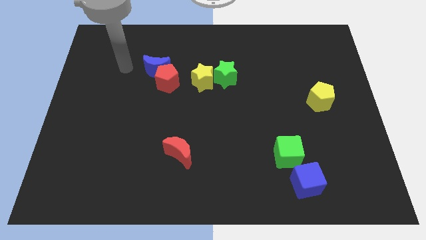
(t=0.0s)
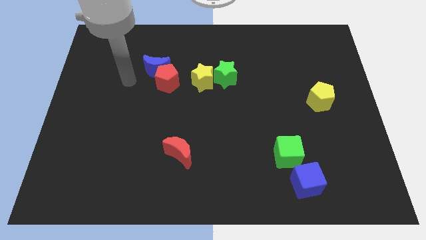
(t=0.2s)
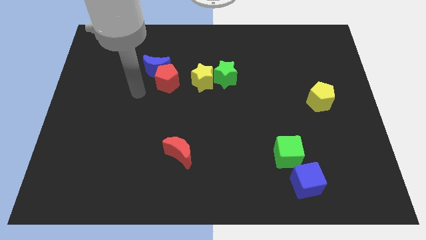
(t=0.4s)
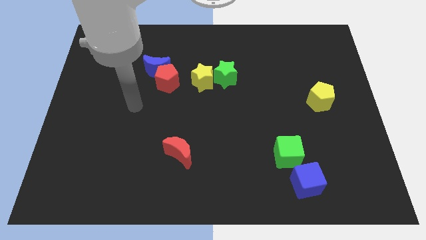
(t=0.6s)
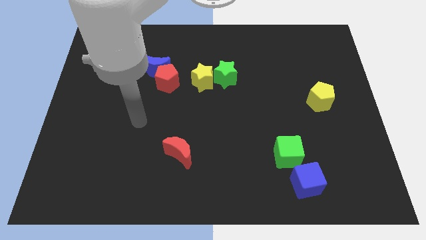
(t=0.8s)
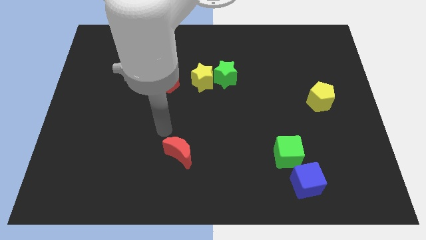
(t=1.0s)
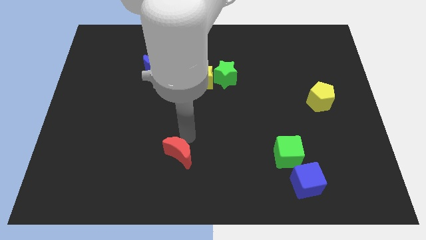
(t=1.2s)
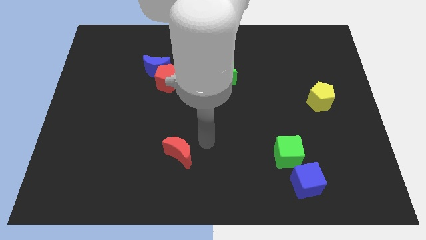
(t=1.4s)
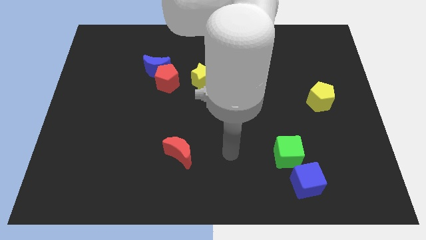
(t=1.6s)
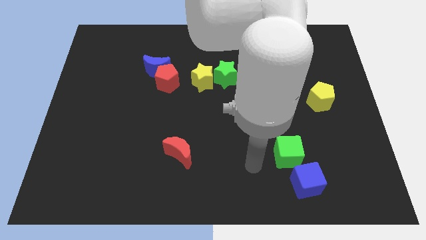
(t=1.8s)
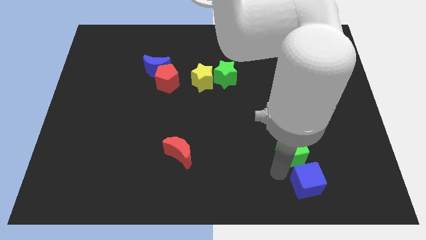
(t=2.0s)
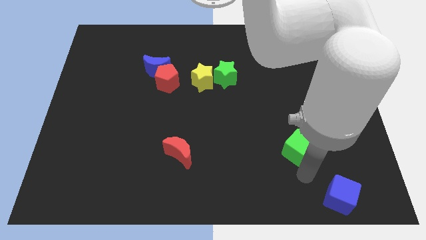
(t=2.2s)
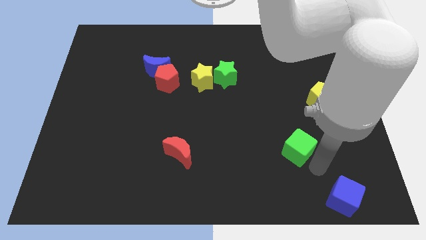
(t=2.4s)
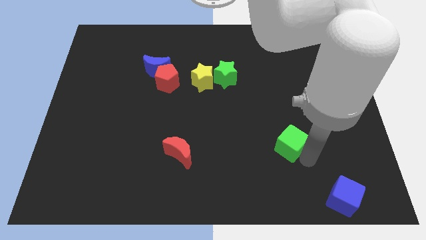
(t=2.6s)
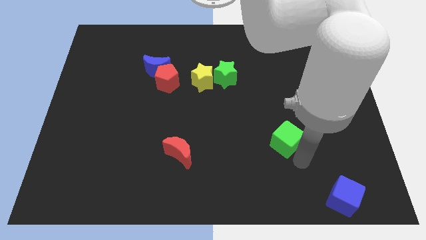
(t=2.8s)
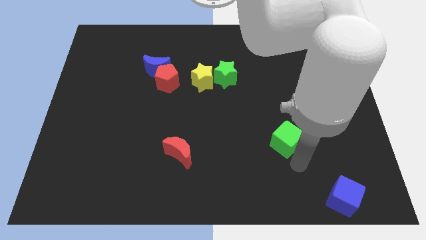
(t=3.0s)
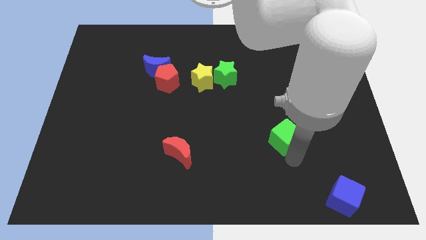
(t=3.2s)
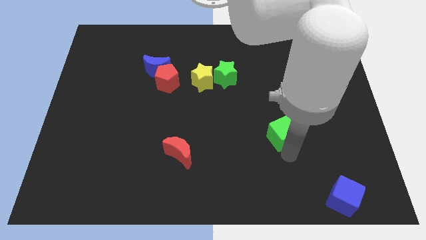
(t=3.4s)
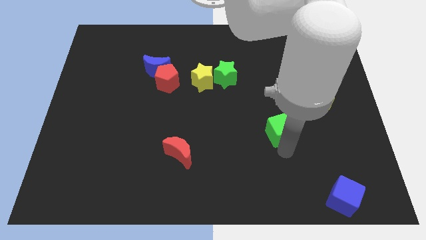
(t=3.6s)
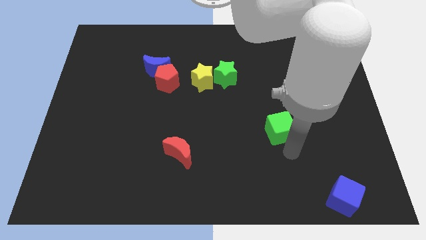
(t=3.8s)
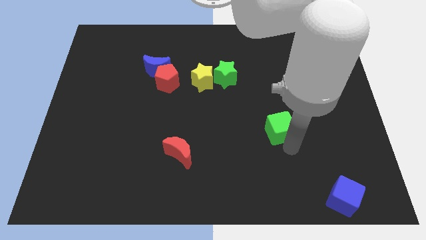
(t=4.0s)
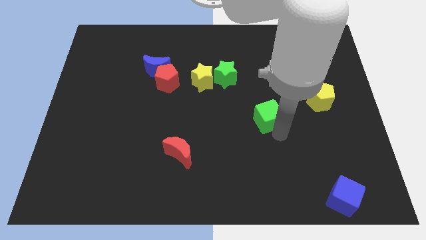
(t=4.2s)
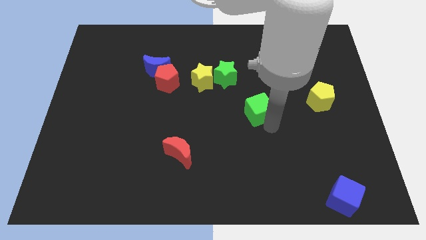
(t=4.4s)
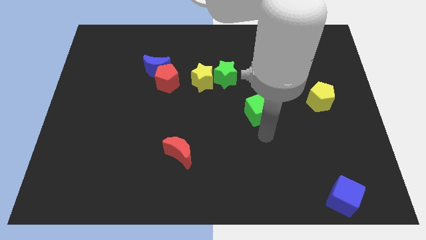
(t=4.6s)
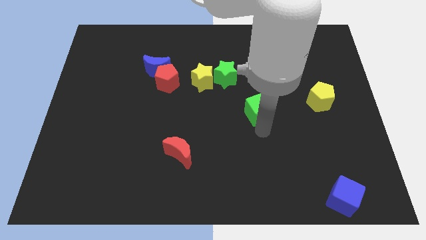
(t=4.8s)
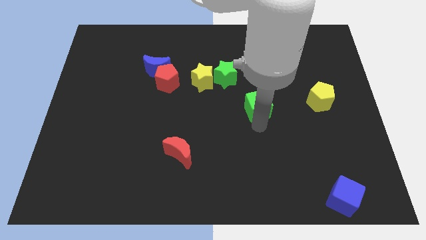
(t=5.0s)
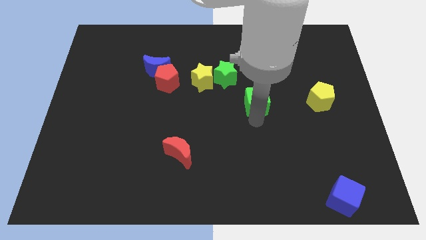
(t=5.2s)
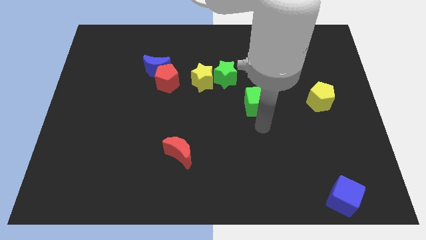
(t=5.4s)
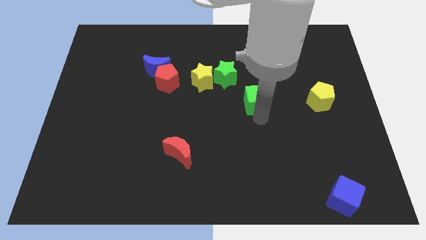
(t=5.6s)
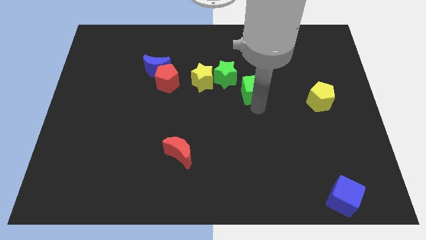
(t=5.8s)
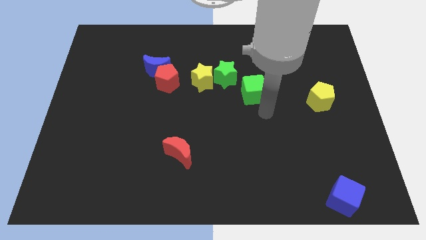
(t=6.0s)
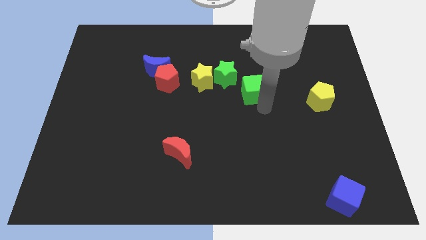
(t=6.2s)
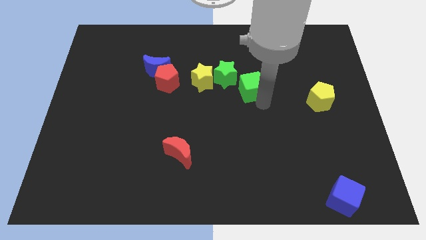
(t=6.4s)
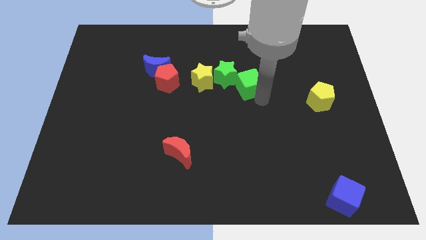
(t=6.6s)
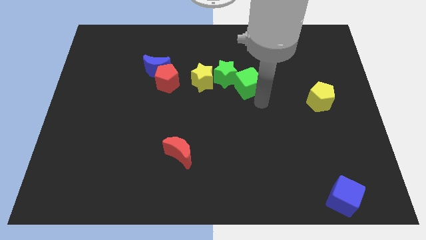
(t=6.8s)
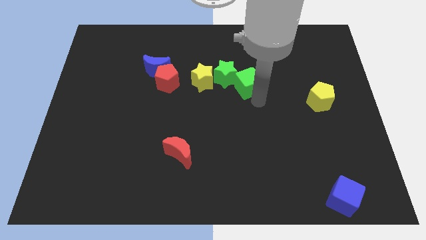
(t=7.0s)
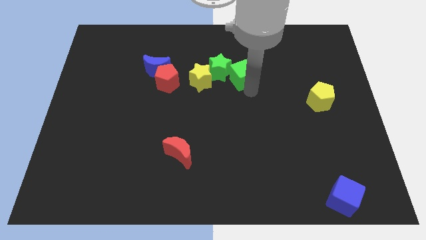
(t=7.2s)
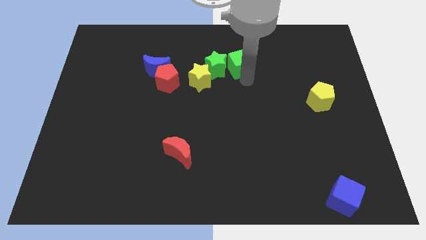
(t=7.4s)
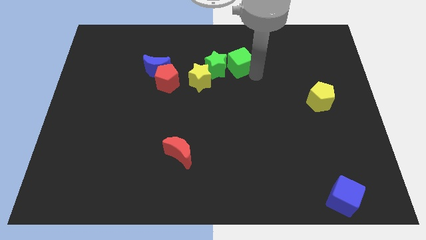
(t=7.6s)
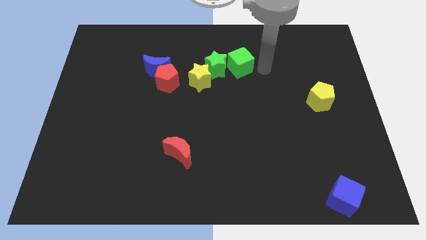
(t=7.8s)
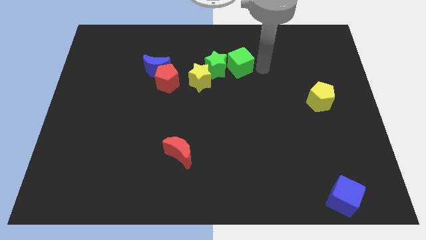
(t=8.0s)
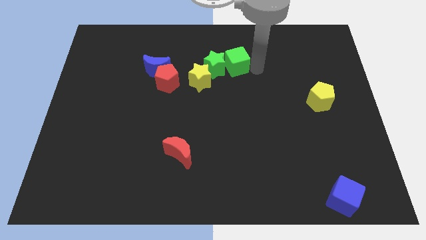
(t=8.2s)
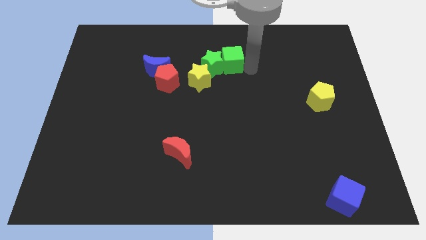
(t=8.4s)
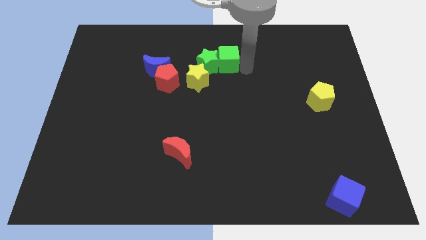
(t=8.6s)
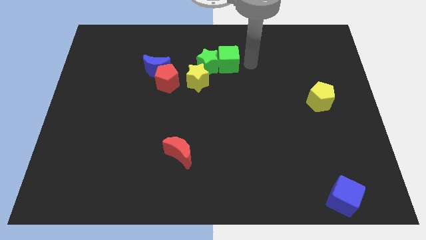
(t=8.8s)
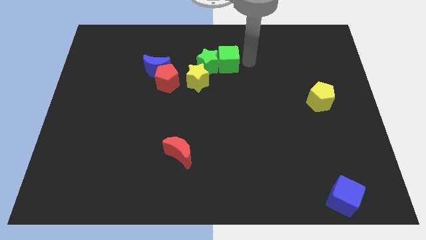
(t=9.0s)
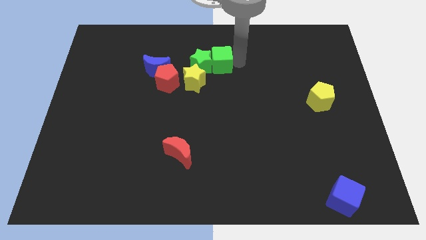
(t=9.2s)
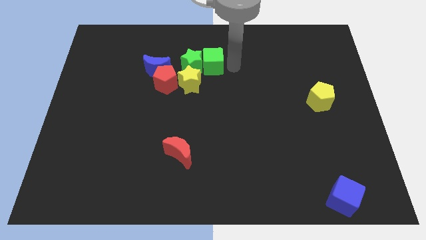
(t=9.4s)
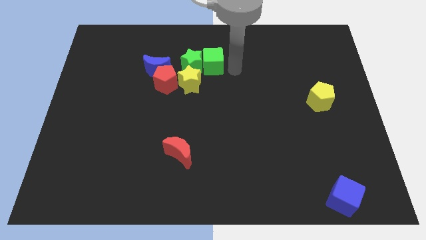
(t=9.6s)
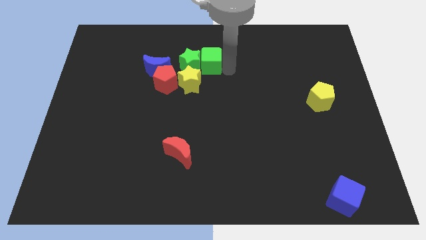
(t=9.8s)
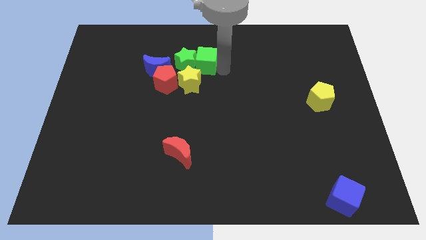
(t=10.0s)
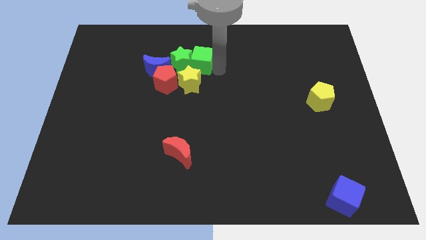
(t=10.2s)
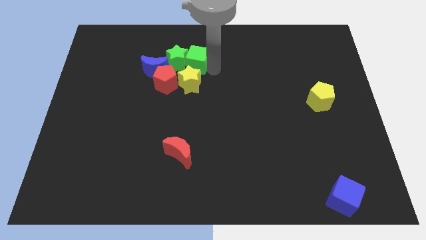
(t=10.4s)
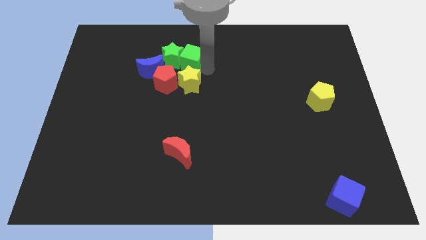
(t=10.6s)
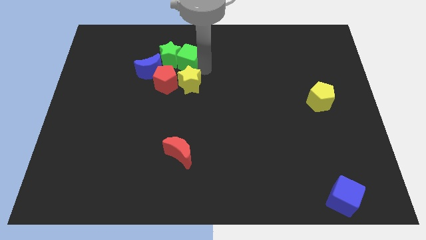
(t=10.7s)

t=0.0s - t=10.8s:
slide the green cube to the top right side of the blue moon

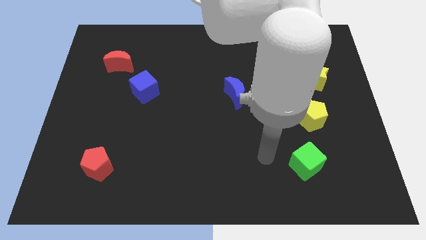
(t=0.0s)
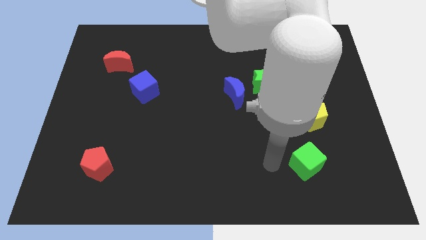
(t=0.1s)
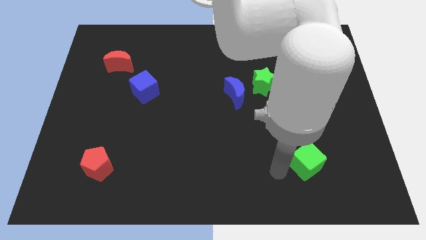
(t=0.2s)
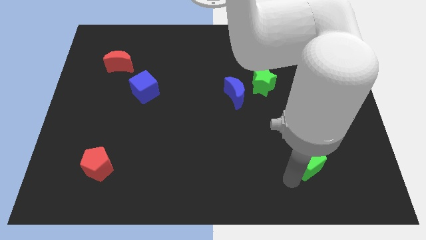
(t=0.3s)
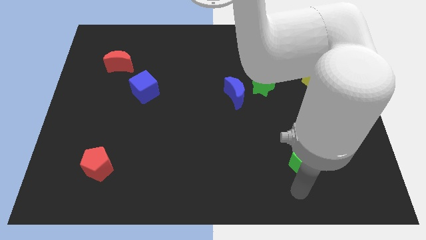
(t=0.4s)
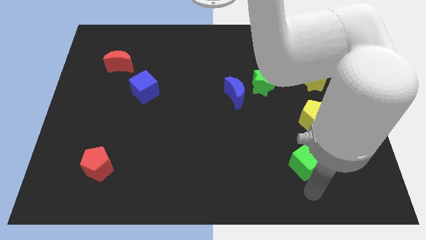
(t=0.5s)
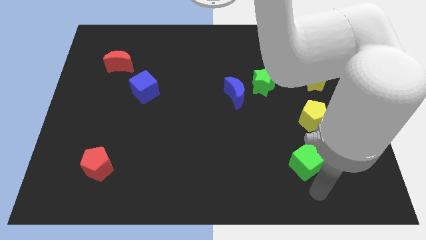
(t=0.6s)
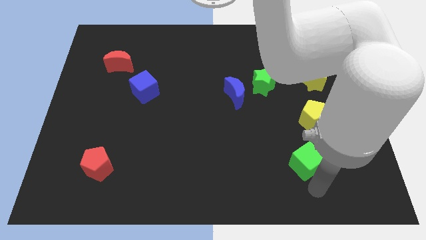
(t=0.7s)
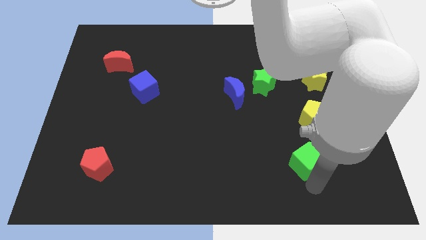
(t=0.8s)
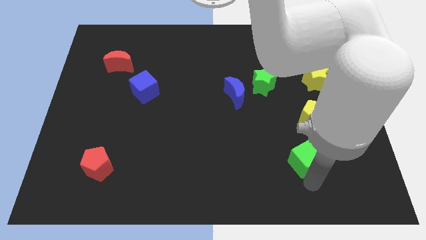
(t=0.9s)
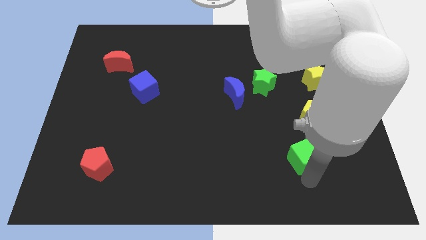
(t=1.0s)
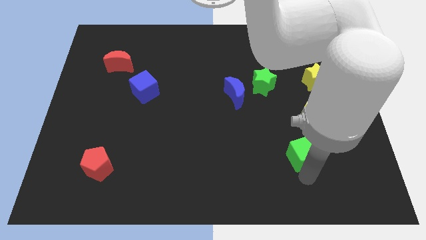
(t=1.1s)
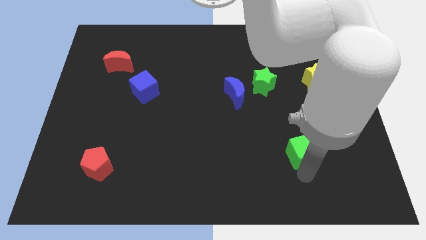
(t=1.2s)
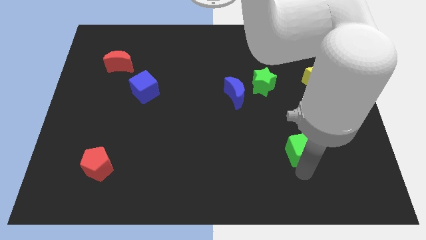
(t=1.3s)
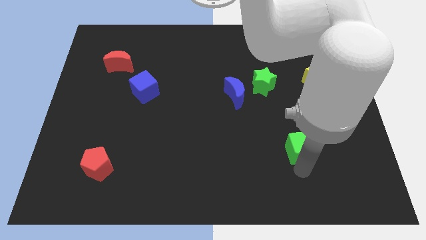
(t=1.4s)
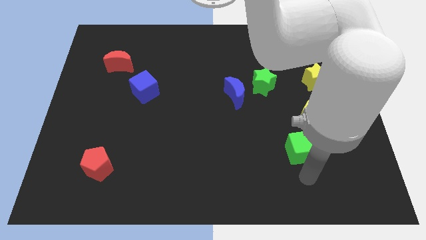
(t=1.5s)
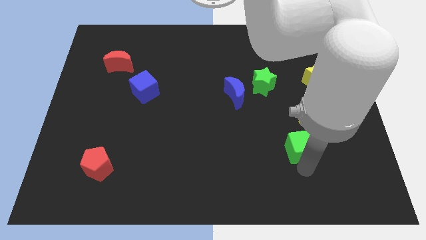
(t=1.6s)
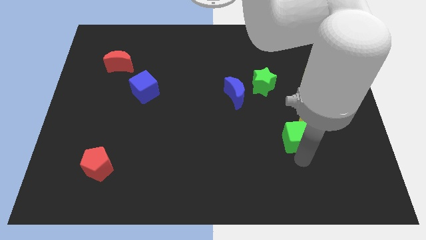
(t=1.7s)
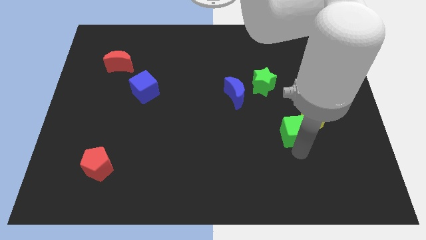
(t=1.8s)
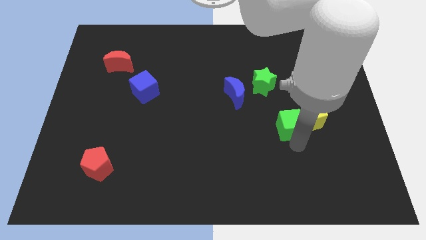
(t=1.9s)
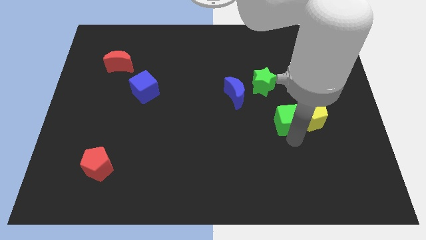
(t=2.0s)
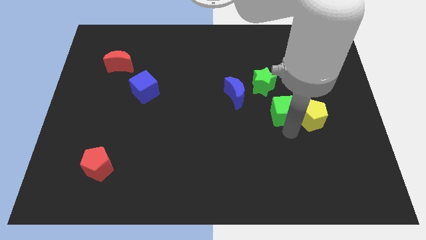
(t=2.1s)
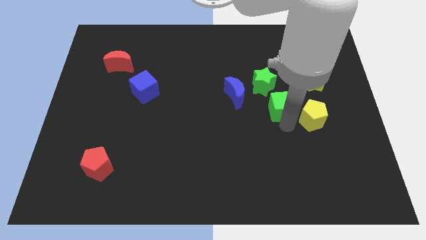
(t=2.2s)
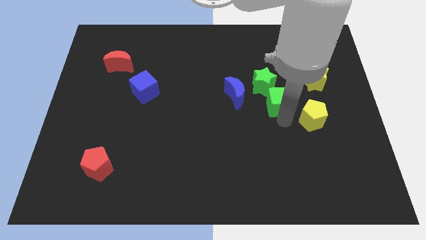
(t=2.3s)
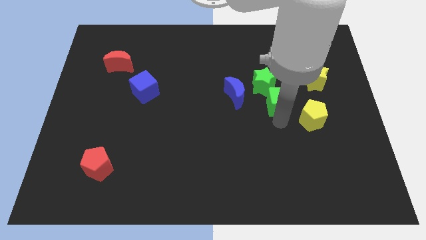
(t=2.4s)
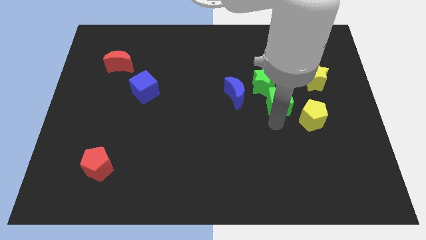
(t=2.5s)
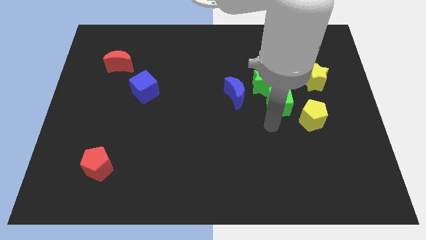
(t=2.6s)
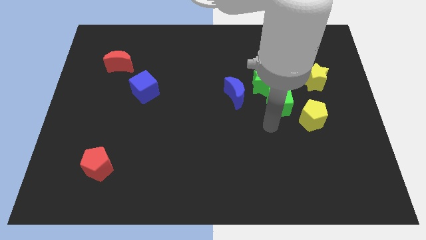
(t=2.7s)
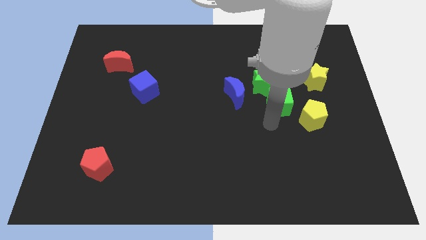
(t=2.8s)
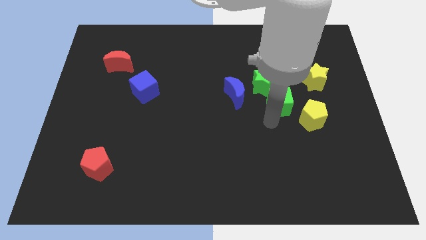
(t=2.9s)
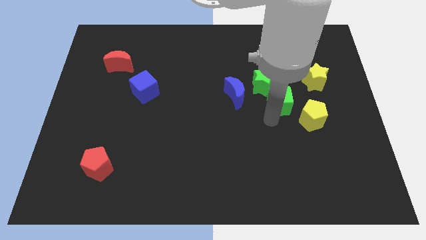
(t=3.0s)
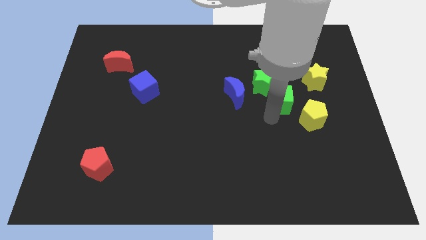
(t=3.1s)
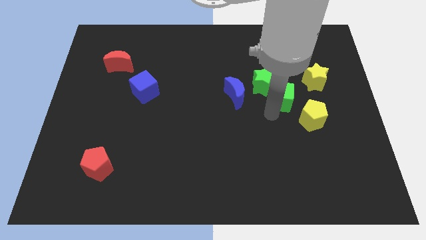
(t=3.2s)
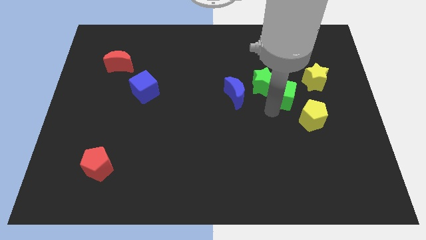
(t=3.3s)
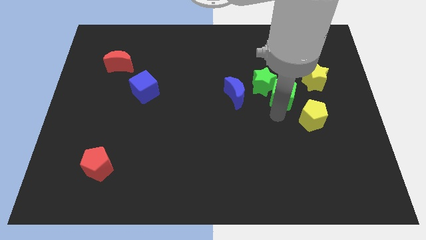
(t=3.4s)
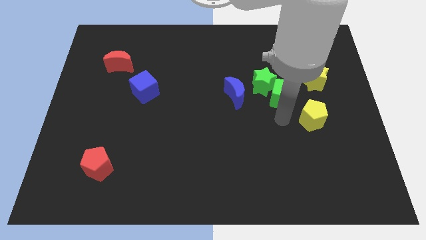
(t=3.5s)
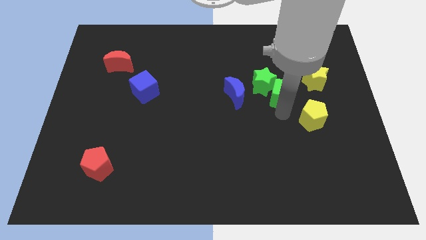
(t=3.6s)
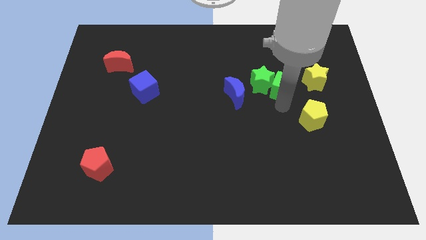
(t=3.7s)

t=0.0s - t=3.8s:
move the green cube to the top right side of the green star
